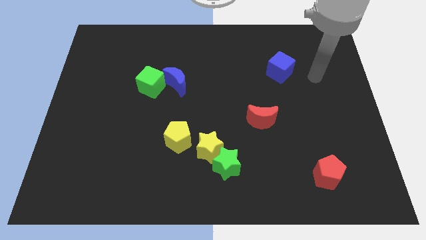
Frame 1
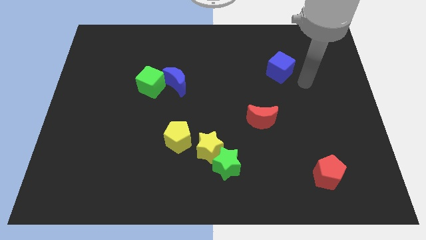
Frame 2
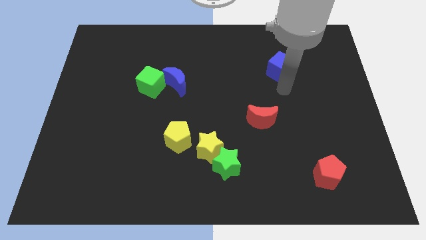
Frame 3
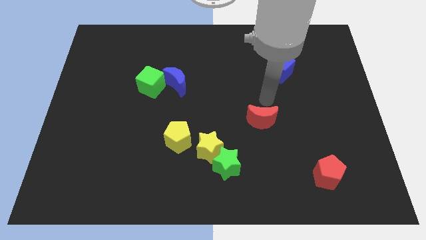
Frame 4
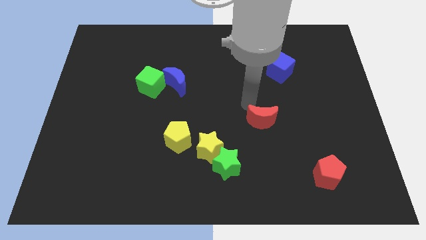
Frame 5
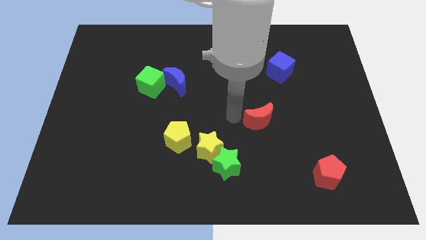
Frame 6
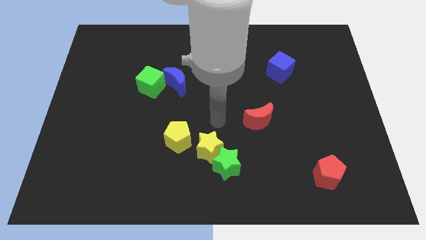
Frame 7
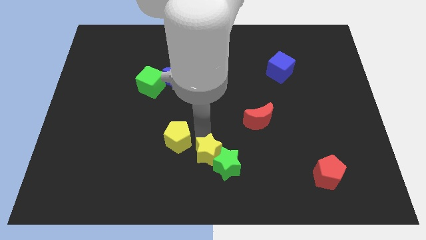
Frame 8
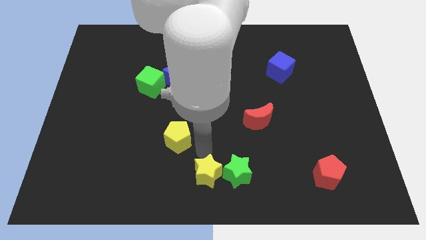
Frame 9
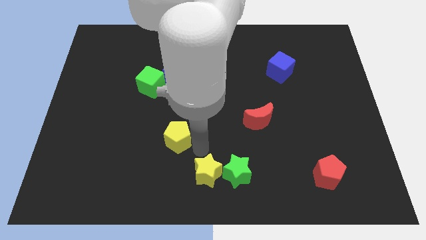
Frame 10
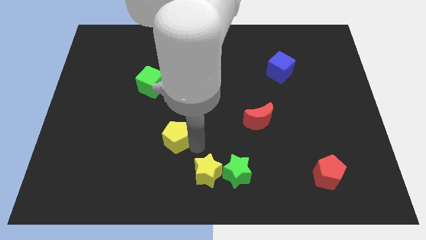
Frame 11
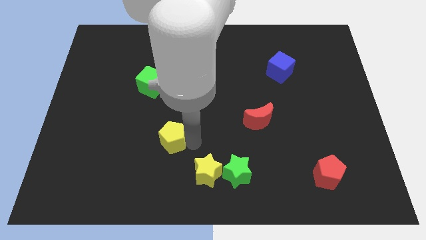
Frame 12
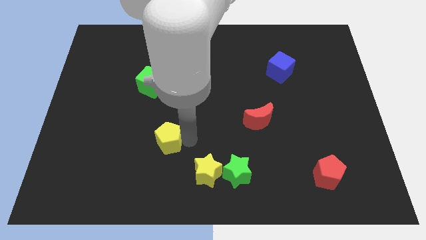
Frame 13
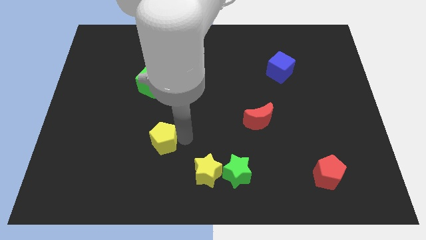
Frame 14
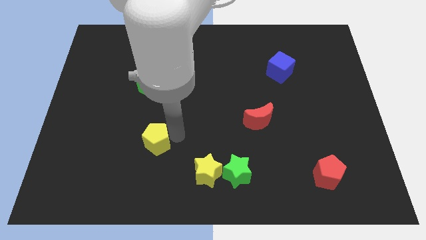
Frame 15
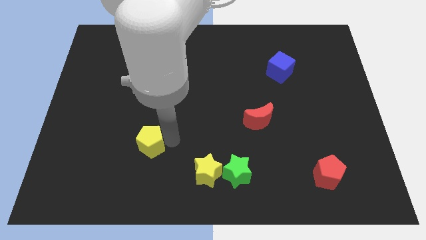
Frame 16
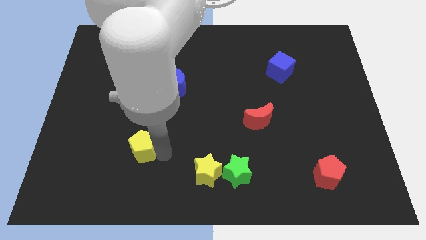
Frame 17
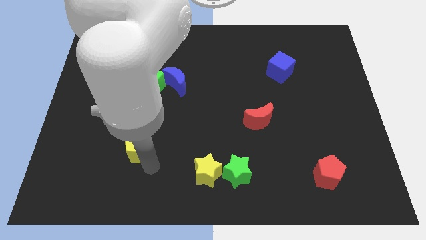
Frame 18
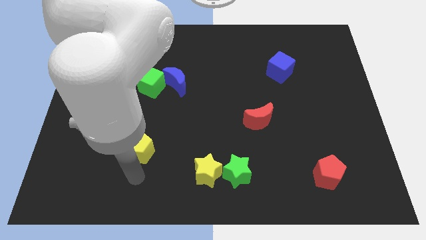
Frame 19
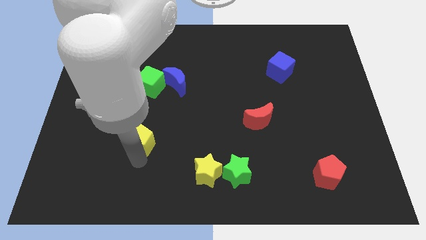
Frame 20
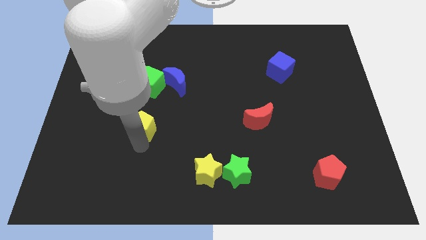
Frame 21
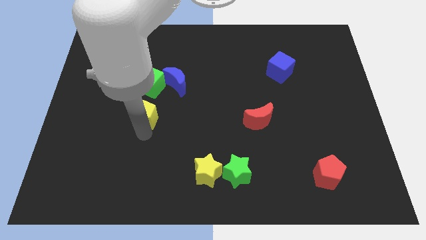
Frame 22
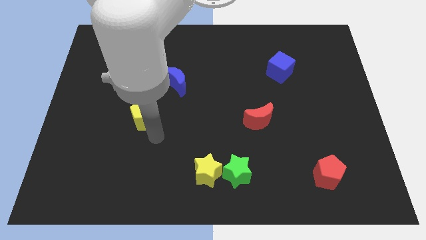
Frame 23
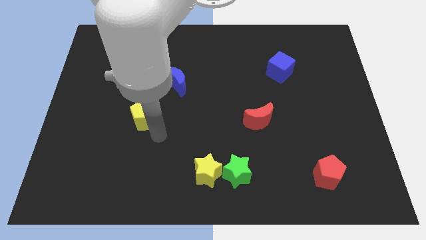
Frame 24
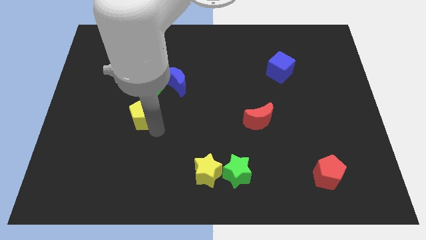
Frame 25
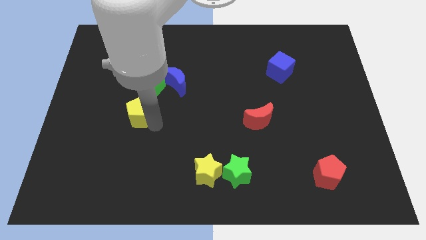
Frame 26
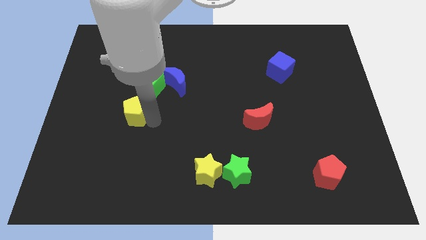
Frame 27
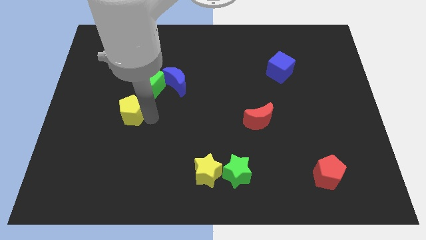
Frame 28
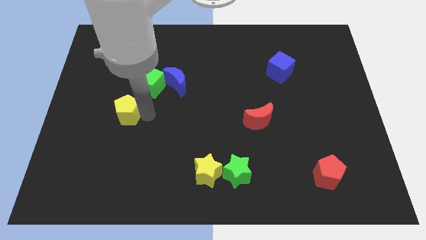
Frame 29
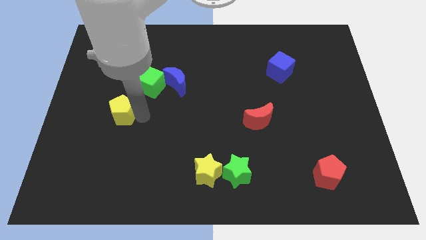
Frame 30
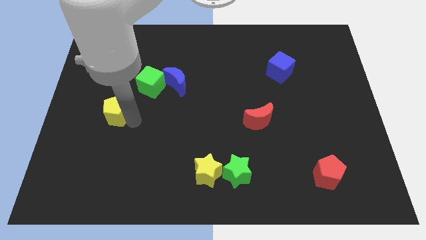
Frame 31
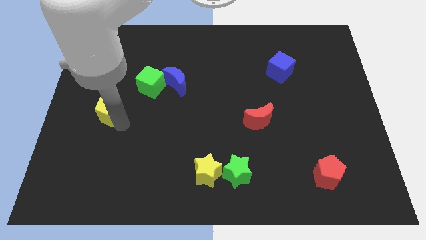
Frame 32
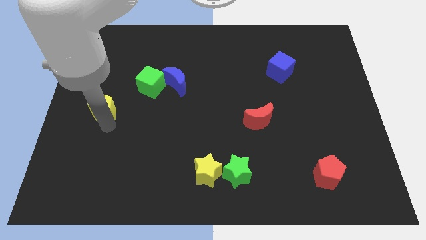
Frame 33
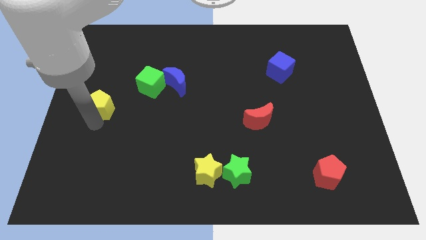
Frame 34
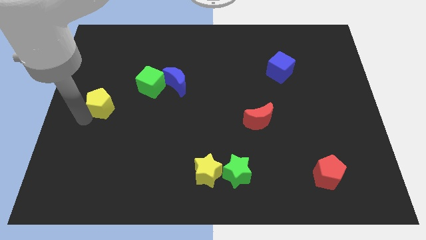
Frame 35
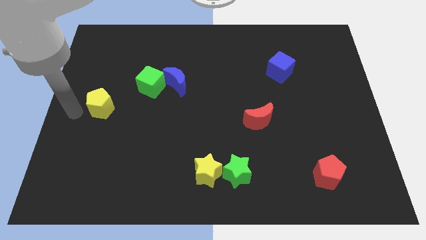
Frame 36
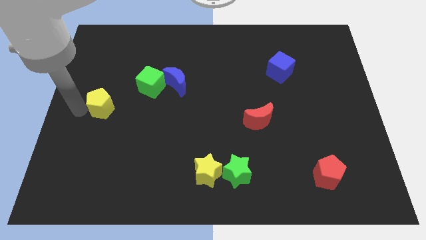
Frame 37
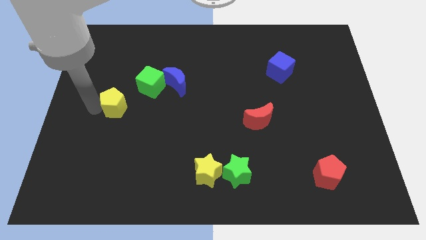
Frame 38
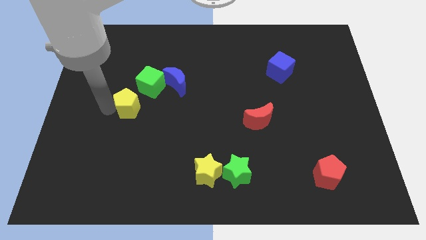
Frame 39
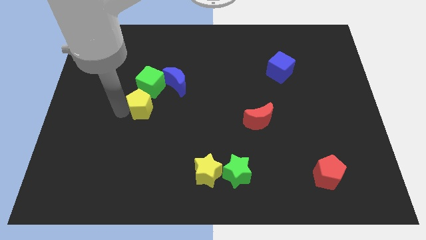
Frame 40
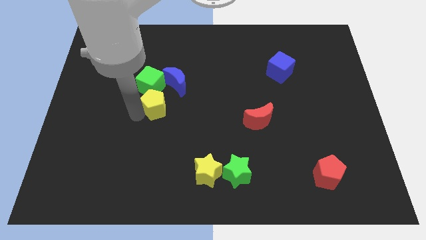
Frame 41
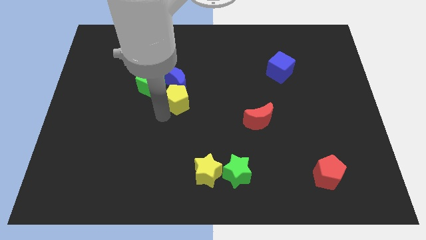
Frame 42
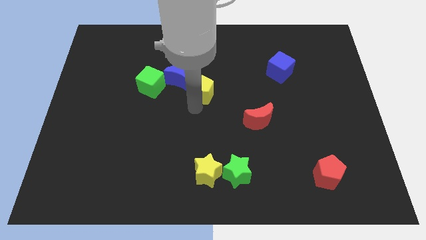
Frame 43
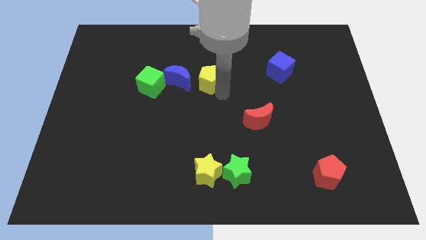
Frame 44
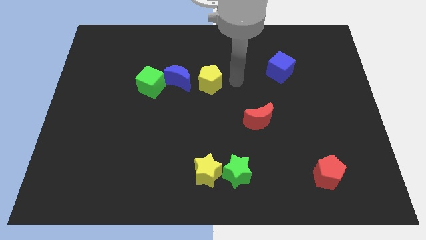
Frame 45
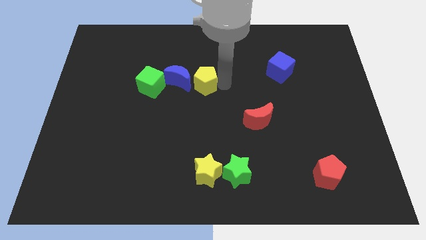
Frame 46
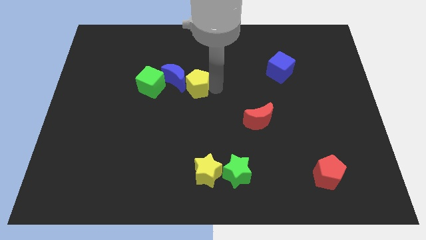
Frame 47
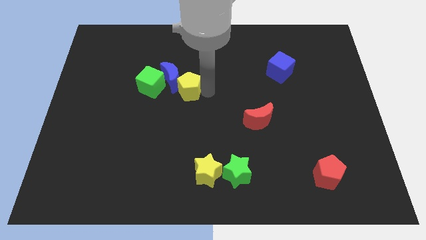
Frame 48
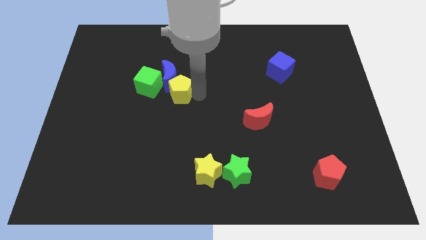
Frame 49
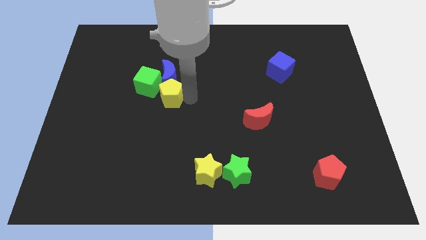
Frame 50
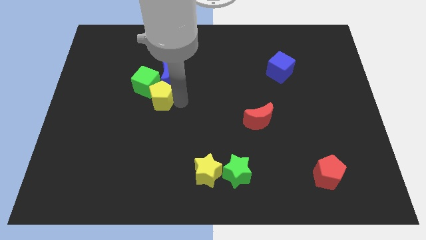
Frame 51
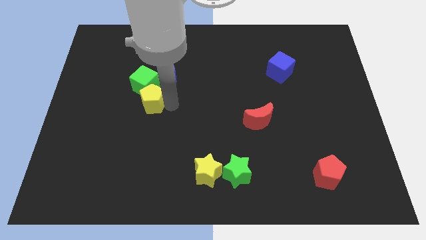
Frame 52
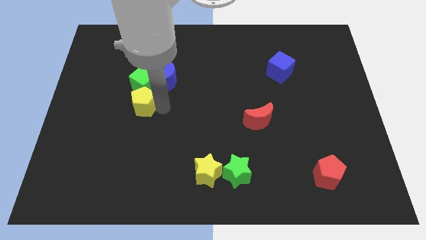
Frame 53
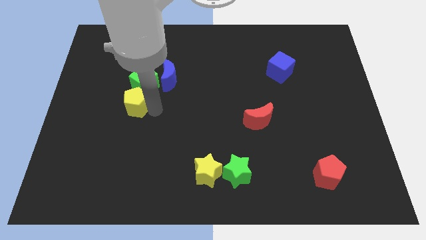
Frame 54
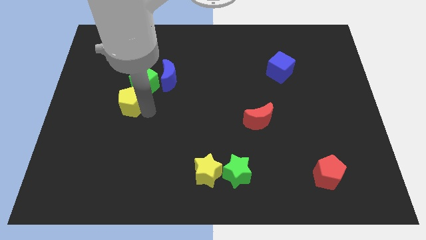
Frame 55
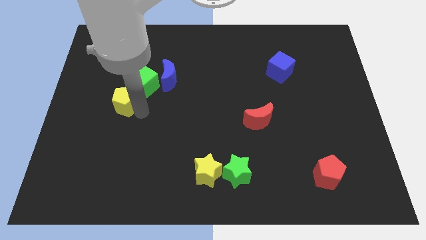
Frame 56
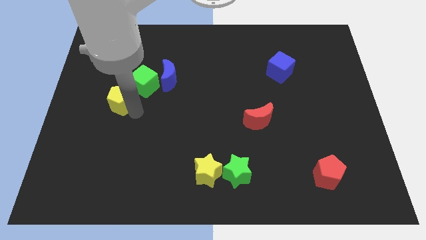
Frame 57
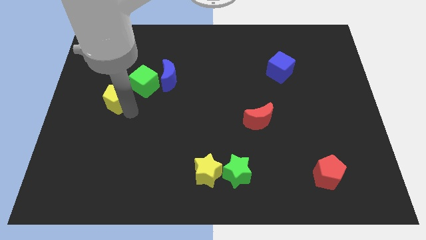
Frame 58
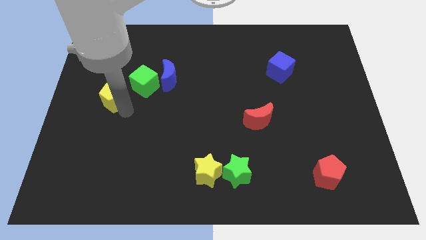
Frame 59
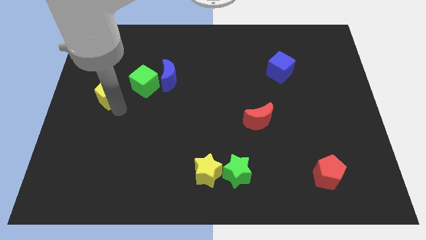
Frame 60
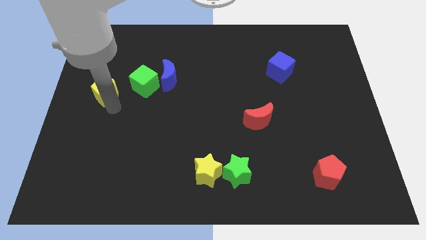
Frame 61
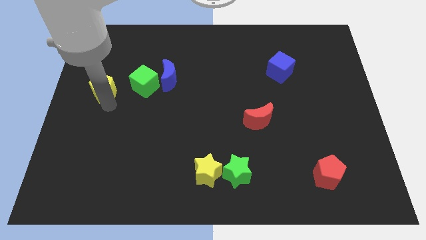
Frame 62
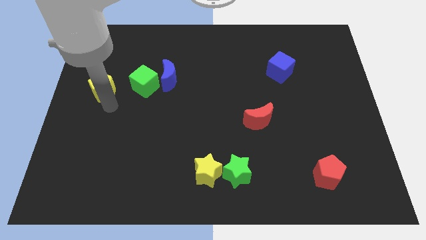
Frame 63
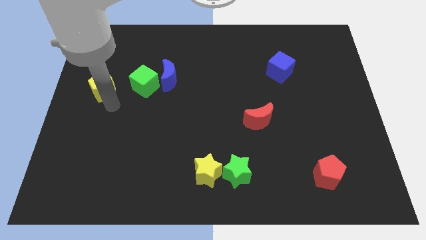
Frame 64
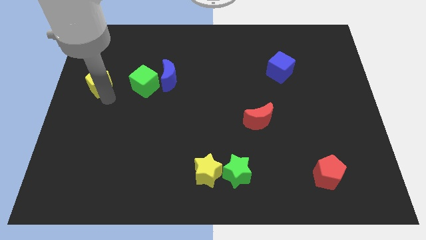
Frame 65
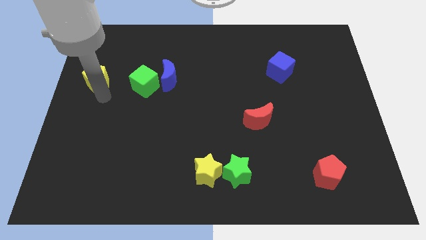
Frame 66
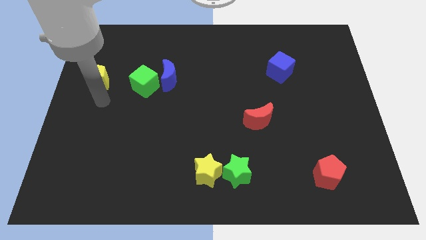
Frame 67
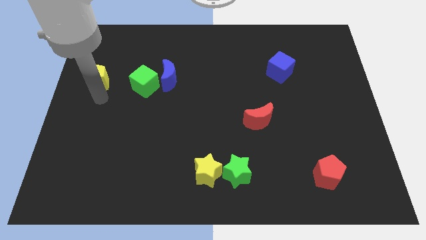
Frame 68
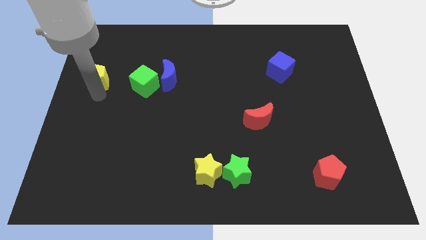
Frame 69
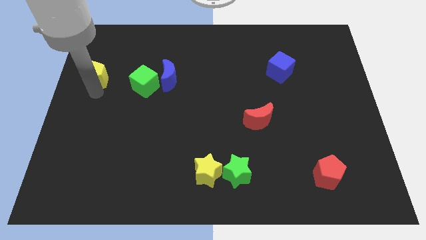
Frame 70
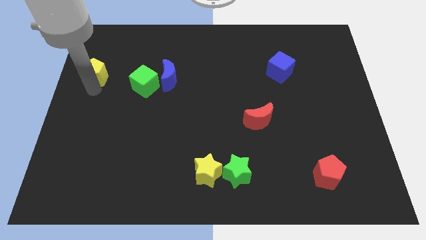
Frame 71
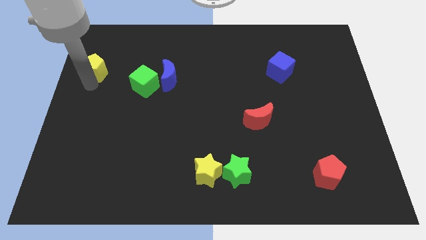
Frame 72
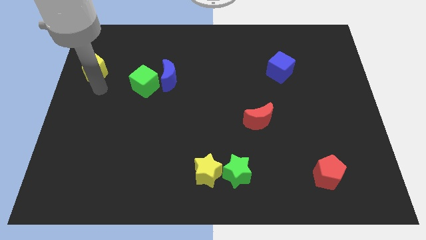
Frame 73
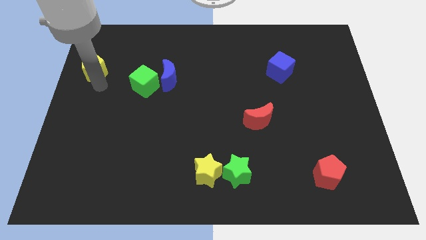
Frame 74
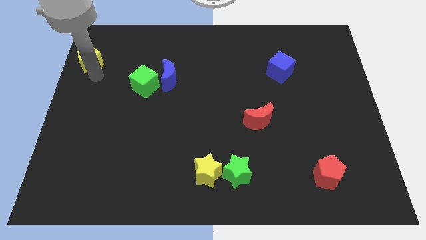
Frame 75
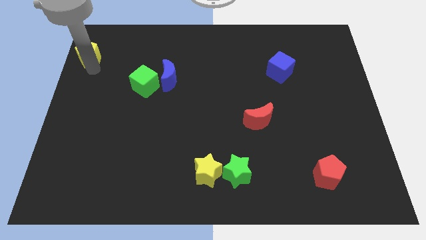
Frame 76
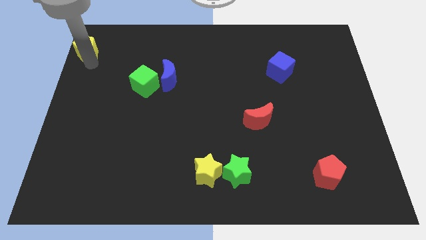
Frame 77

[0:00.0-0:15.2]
slide the yellow pentagon to the top left
